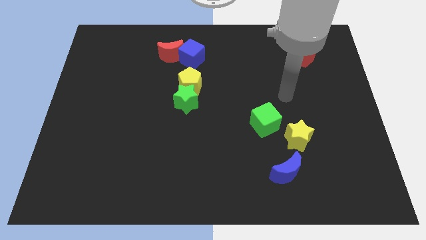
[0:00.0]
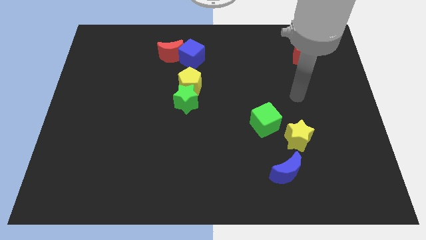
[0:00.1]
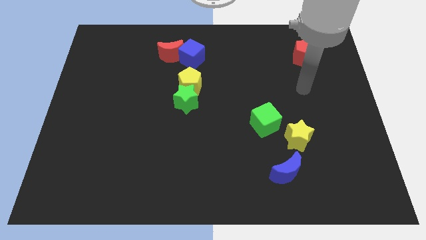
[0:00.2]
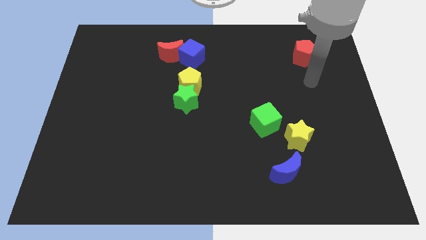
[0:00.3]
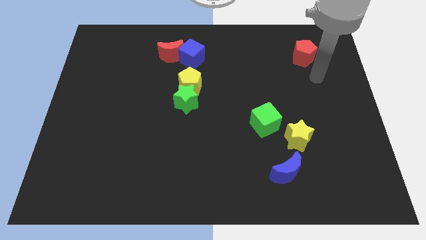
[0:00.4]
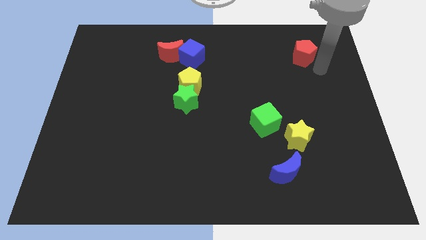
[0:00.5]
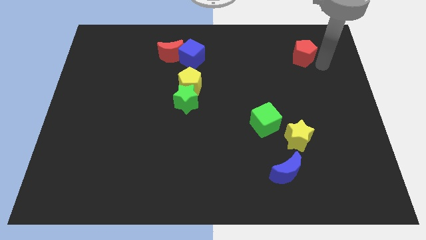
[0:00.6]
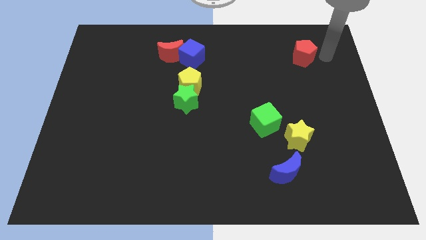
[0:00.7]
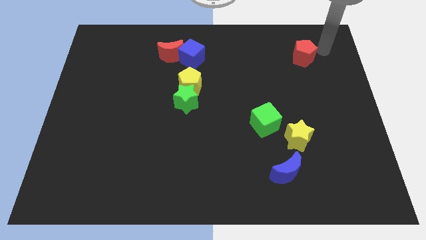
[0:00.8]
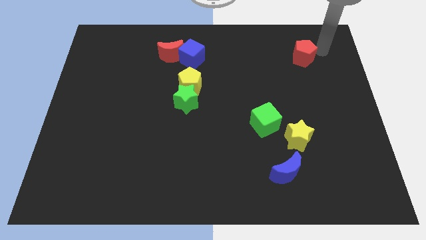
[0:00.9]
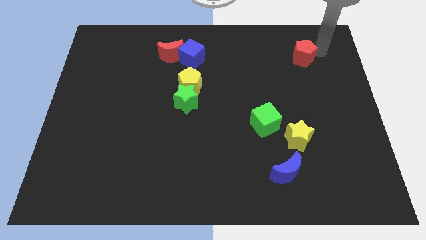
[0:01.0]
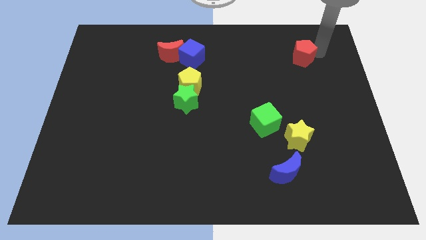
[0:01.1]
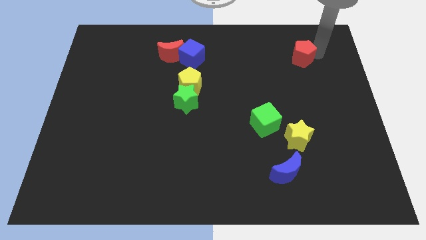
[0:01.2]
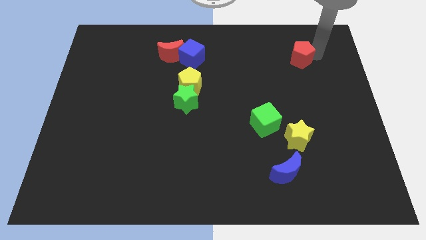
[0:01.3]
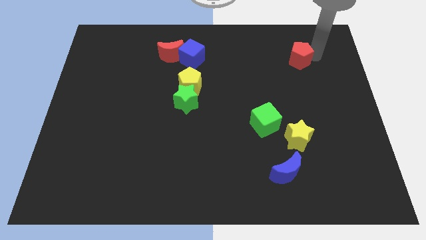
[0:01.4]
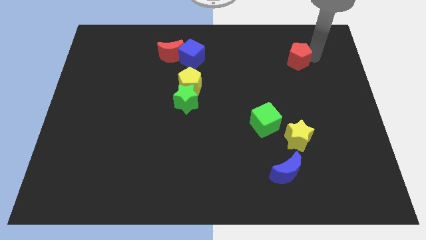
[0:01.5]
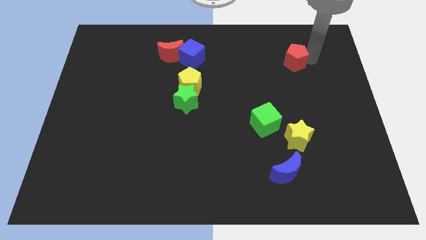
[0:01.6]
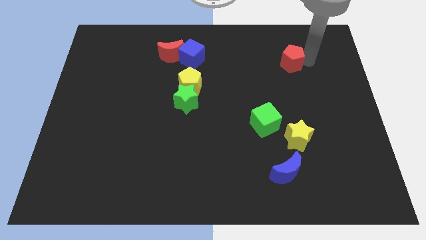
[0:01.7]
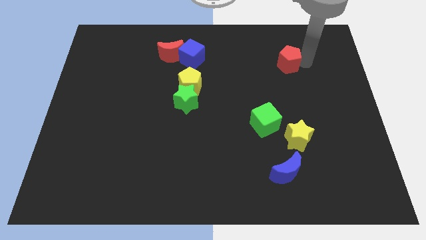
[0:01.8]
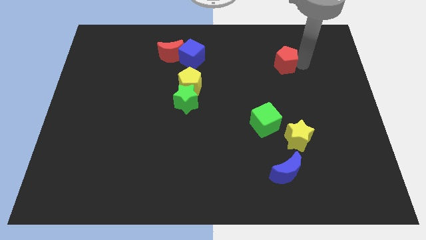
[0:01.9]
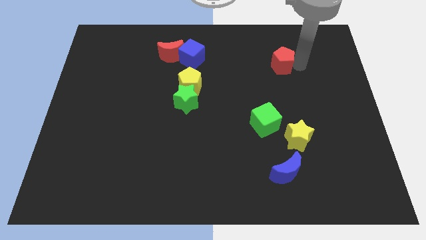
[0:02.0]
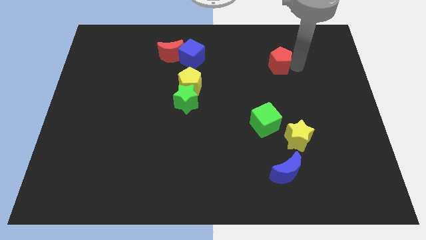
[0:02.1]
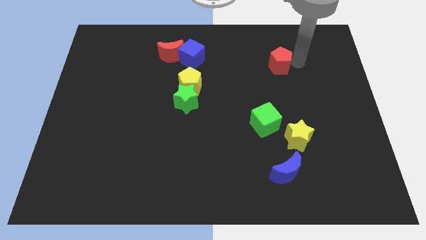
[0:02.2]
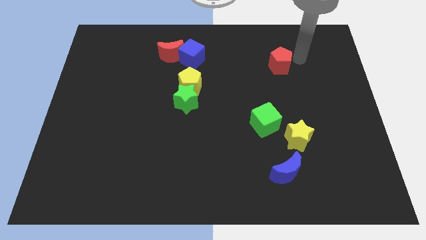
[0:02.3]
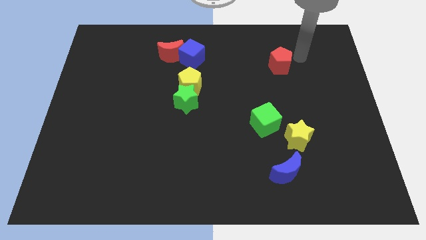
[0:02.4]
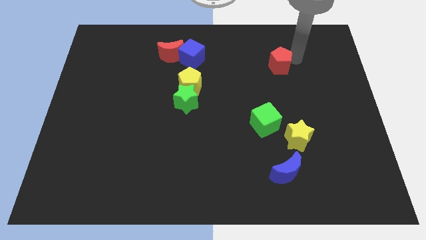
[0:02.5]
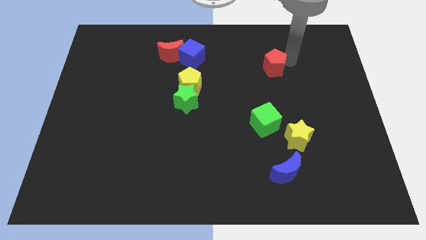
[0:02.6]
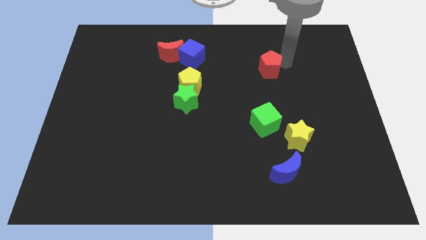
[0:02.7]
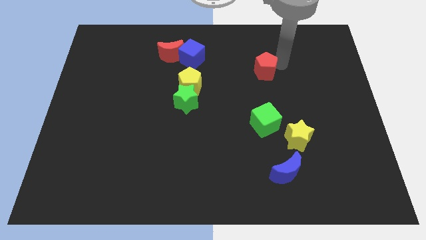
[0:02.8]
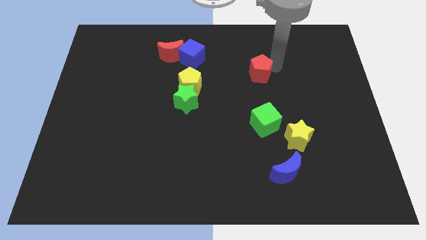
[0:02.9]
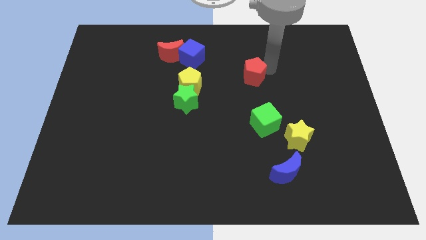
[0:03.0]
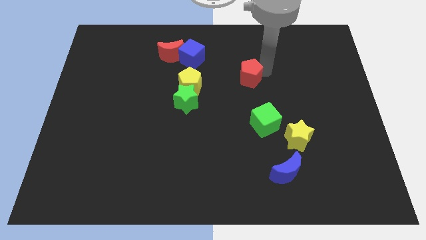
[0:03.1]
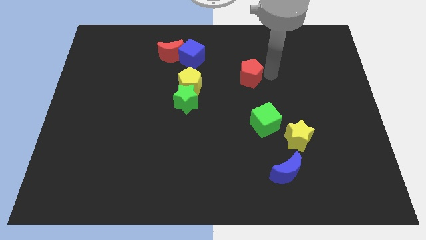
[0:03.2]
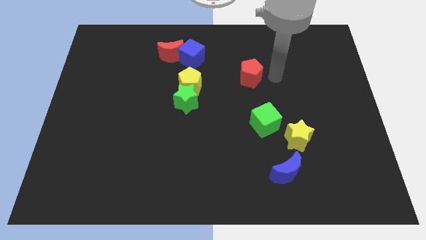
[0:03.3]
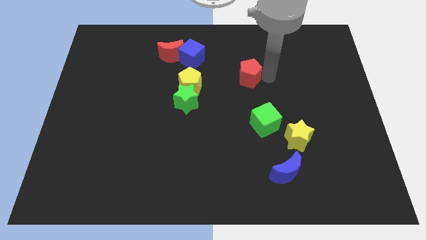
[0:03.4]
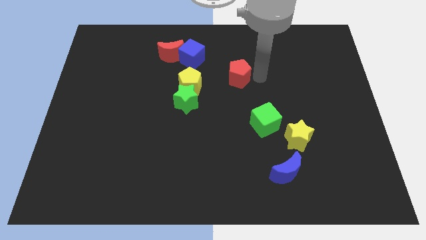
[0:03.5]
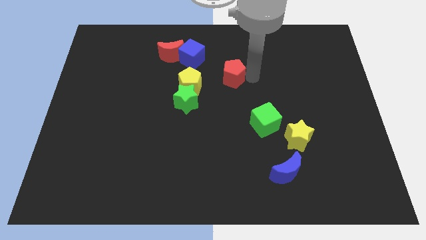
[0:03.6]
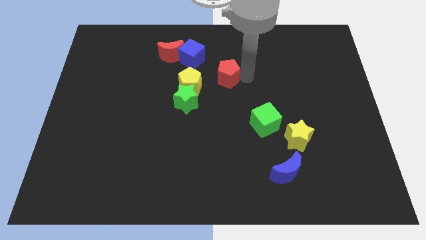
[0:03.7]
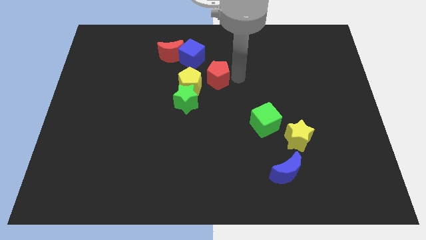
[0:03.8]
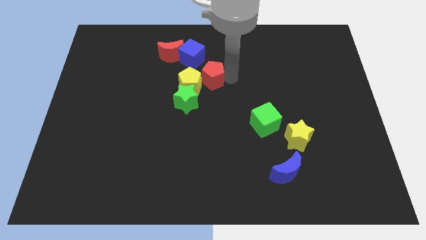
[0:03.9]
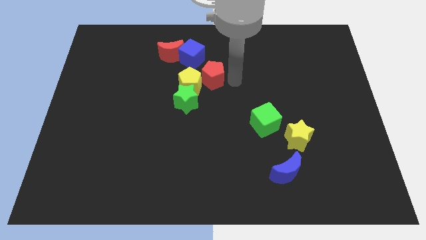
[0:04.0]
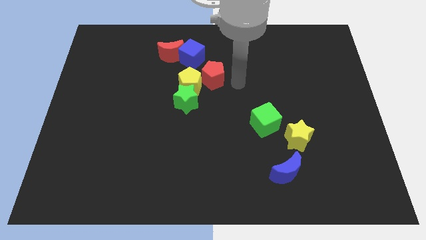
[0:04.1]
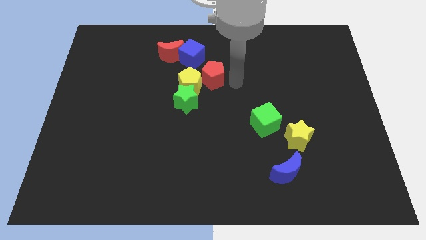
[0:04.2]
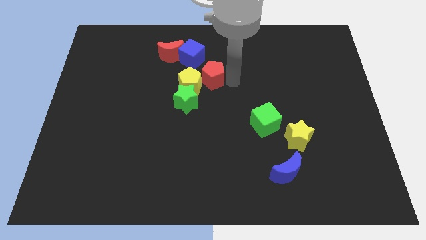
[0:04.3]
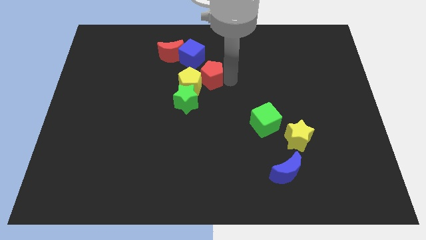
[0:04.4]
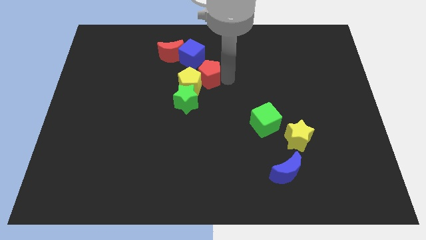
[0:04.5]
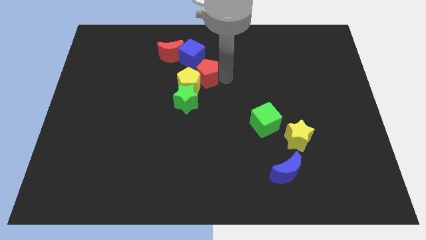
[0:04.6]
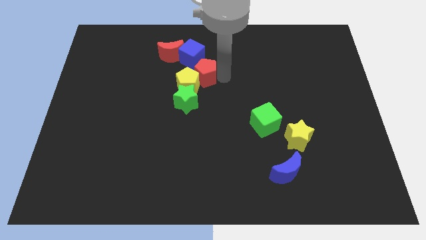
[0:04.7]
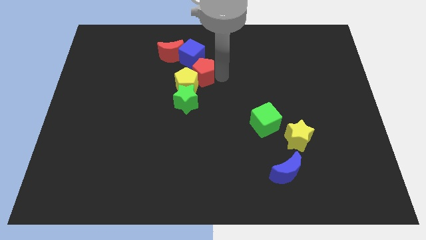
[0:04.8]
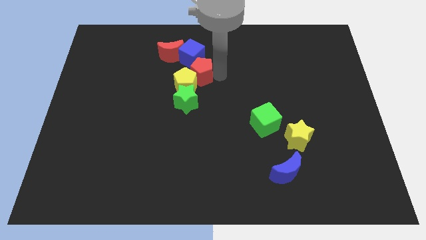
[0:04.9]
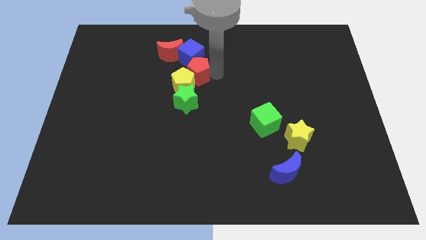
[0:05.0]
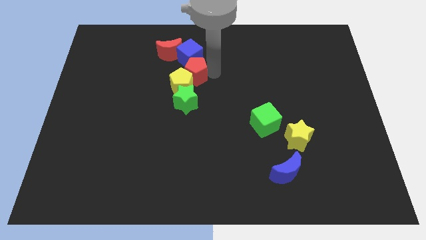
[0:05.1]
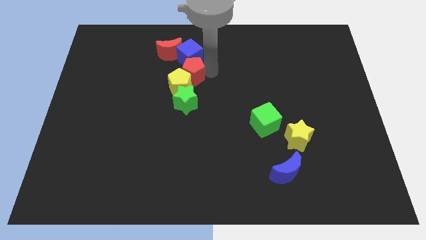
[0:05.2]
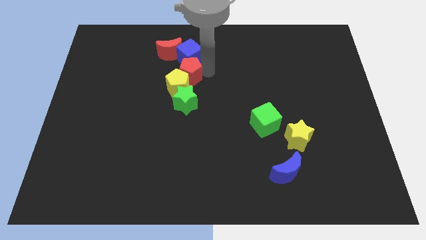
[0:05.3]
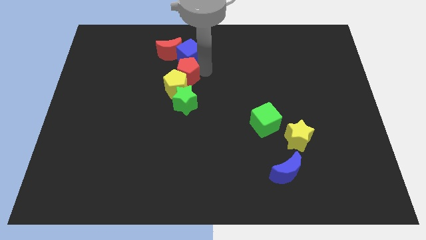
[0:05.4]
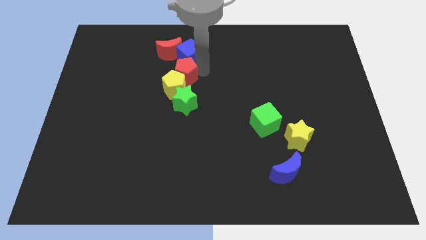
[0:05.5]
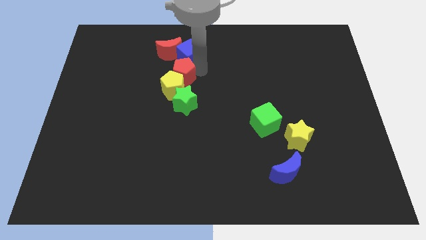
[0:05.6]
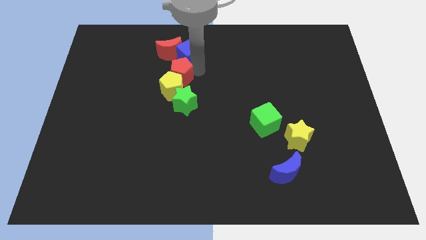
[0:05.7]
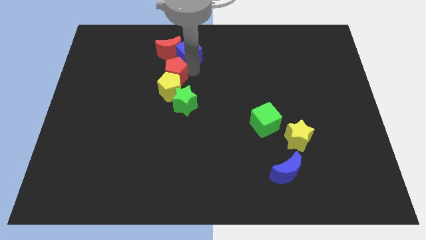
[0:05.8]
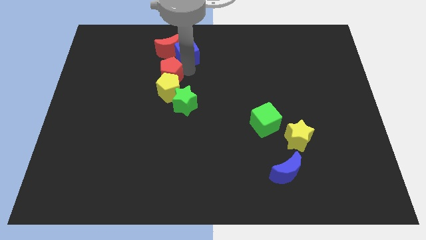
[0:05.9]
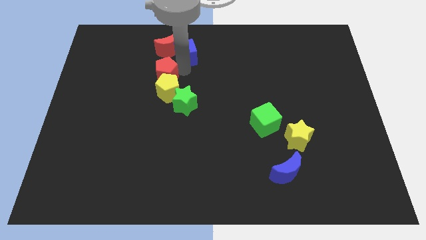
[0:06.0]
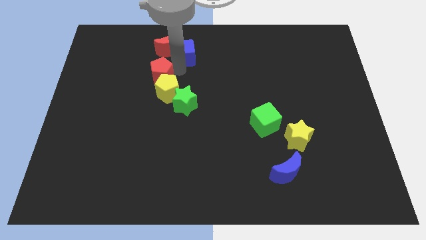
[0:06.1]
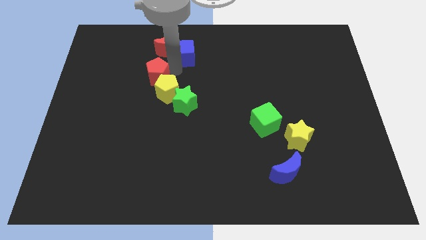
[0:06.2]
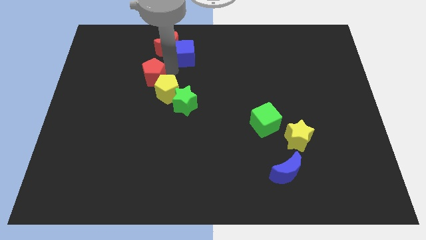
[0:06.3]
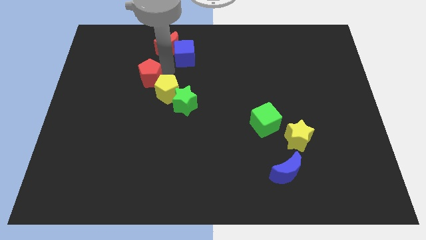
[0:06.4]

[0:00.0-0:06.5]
put the red pentagon to the left of the yellow pentagon

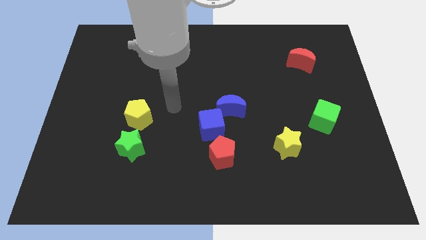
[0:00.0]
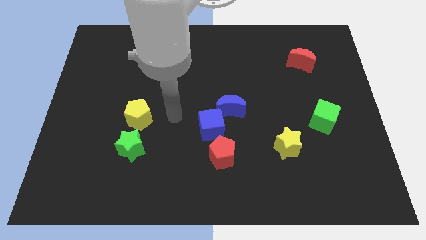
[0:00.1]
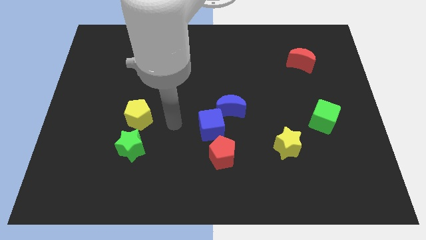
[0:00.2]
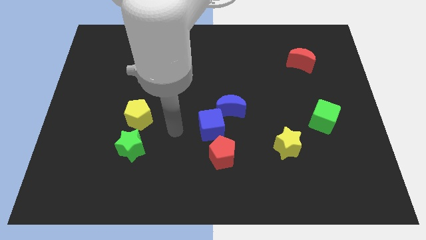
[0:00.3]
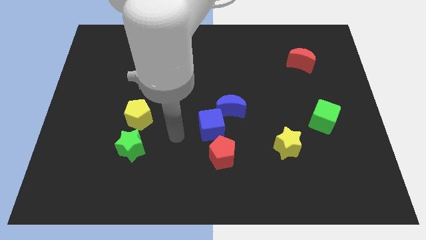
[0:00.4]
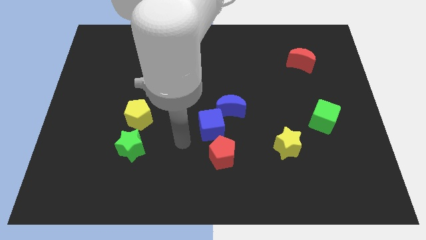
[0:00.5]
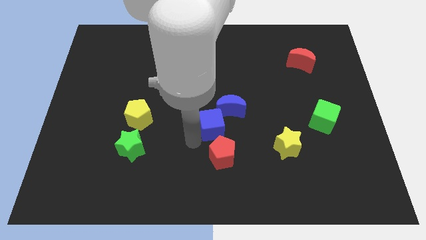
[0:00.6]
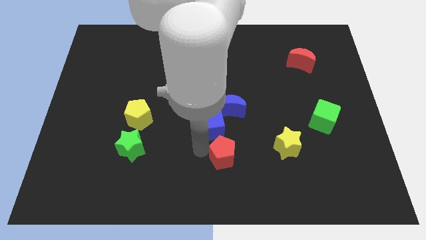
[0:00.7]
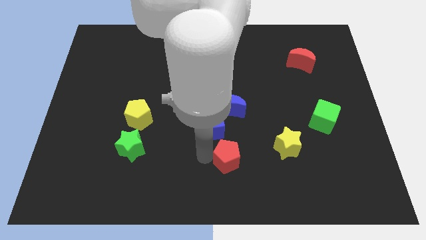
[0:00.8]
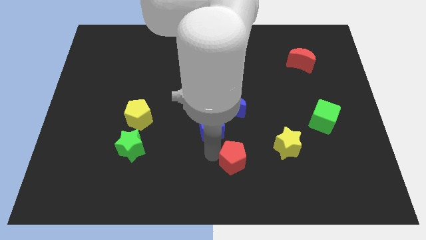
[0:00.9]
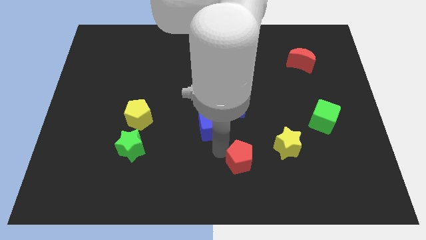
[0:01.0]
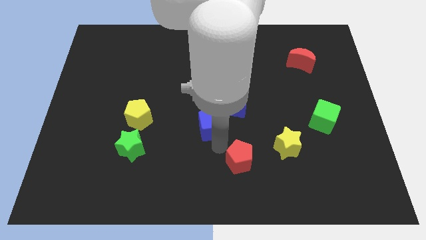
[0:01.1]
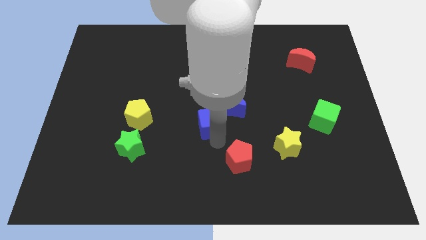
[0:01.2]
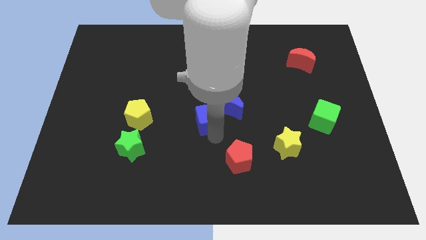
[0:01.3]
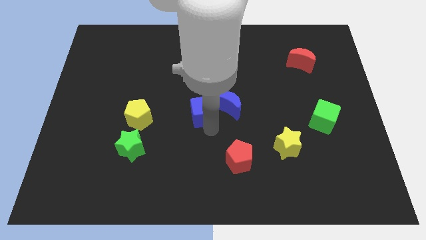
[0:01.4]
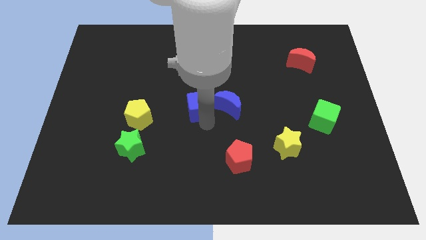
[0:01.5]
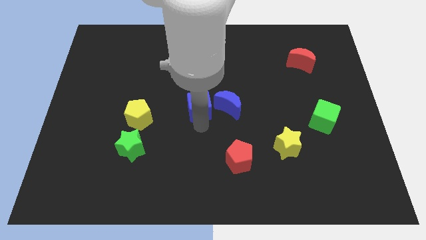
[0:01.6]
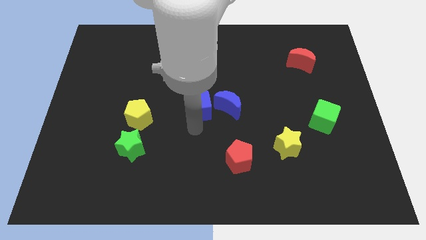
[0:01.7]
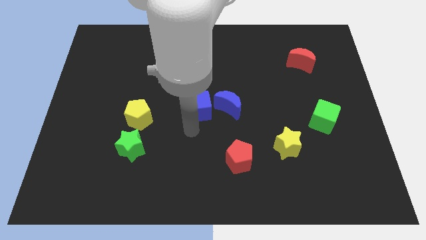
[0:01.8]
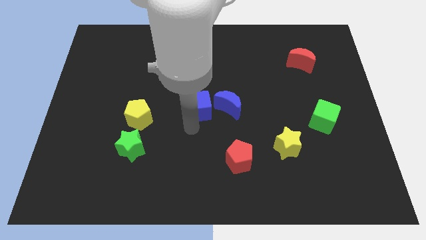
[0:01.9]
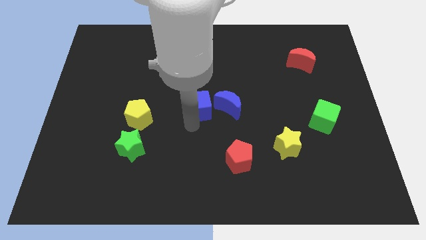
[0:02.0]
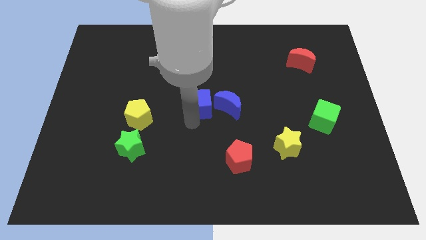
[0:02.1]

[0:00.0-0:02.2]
push the blue cube to the top left side of the blue moon
